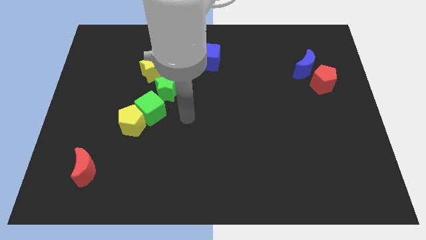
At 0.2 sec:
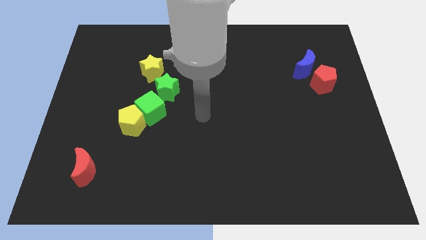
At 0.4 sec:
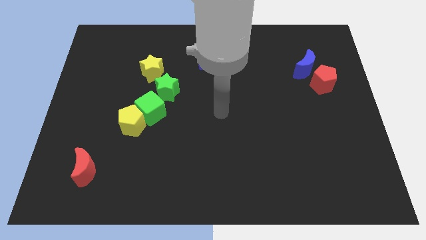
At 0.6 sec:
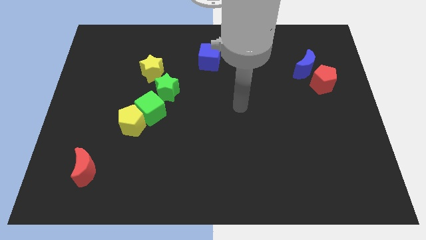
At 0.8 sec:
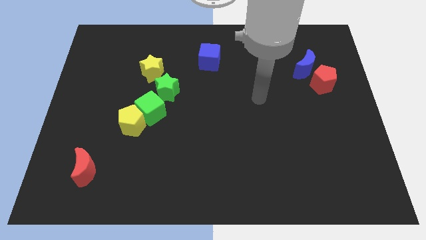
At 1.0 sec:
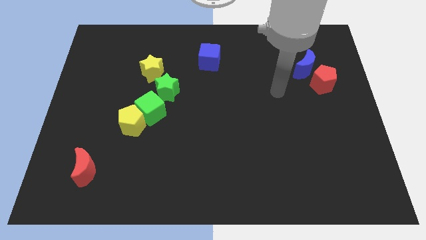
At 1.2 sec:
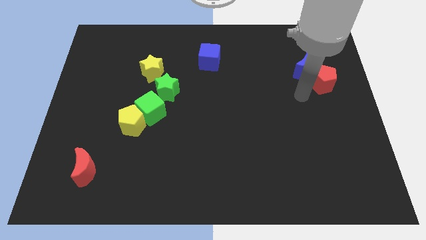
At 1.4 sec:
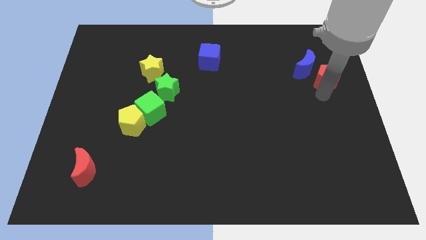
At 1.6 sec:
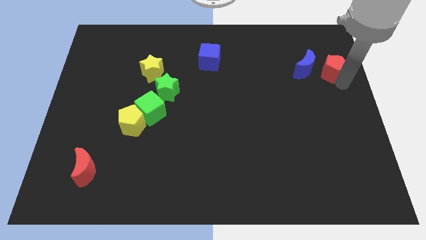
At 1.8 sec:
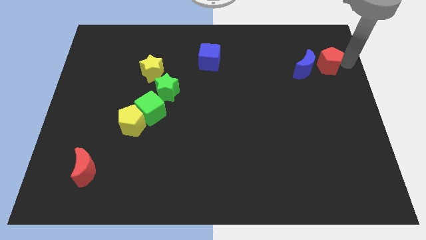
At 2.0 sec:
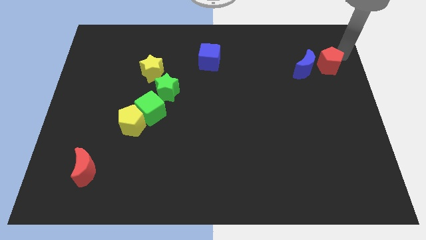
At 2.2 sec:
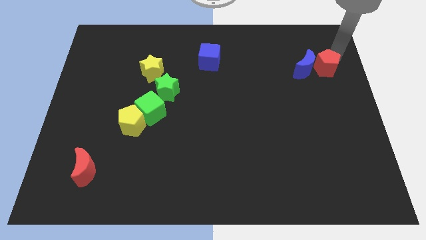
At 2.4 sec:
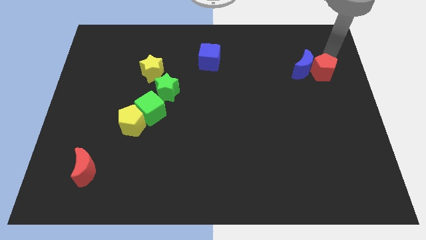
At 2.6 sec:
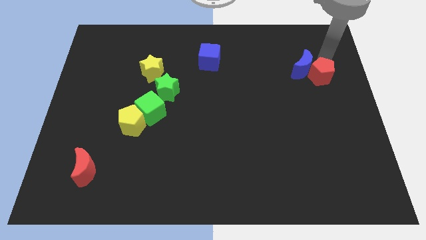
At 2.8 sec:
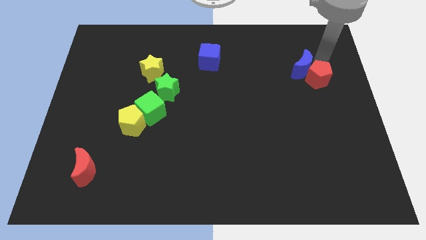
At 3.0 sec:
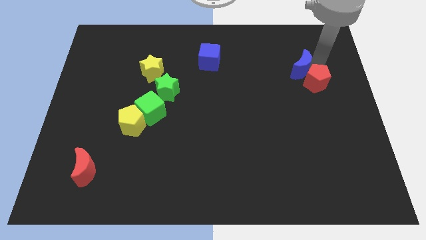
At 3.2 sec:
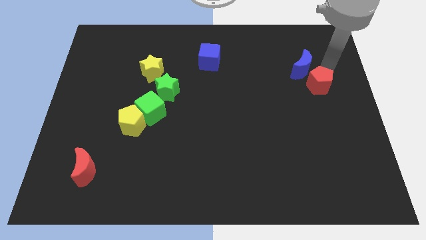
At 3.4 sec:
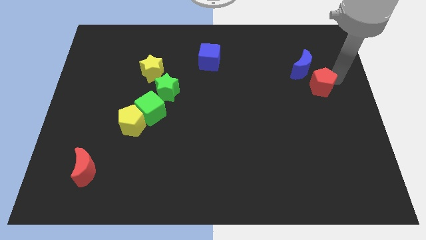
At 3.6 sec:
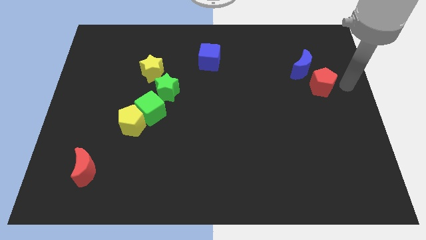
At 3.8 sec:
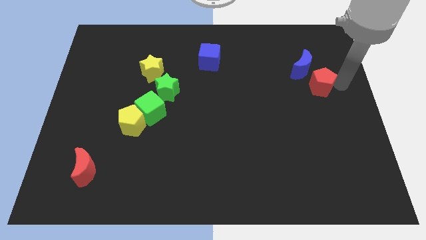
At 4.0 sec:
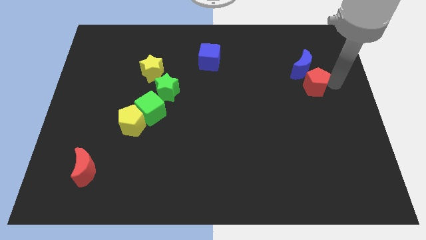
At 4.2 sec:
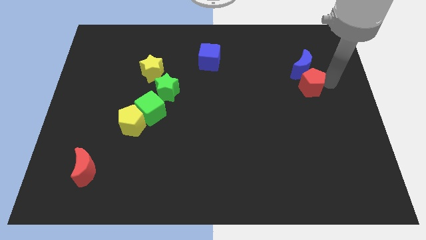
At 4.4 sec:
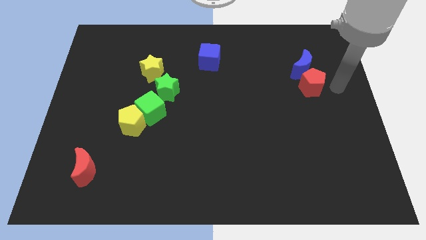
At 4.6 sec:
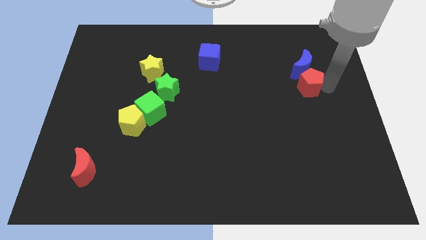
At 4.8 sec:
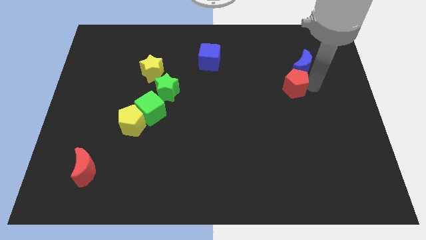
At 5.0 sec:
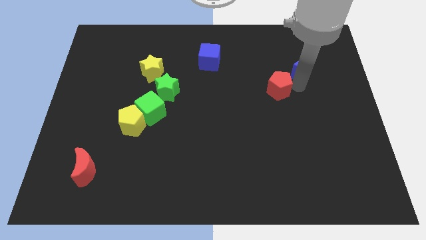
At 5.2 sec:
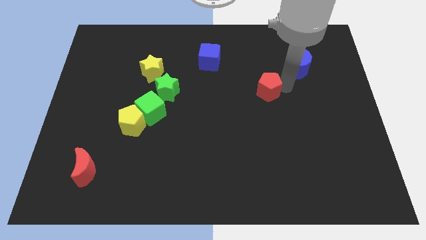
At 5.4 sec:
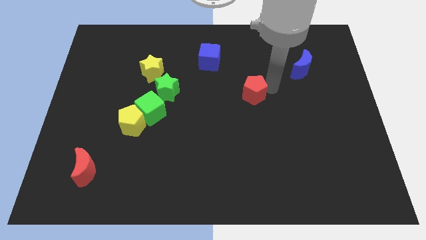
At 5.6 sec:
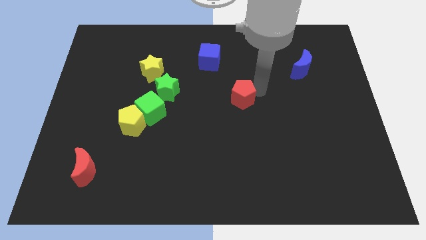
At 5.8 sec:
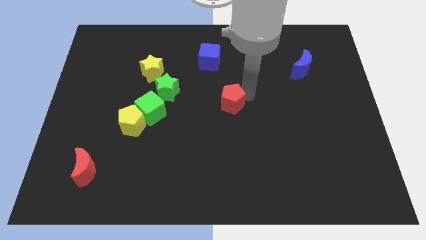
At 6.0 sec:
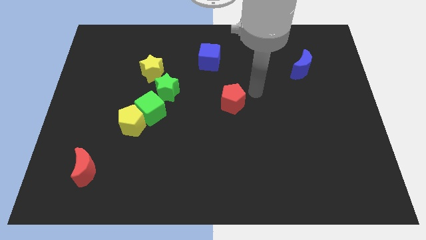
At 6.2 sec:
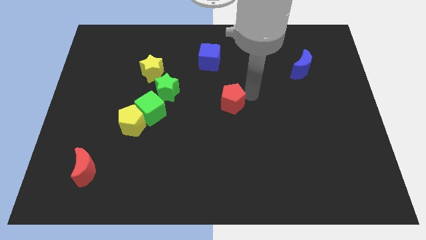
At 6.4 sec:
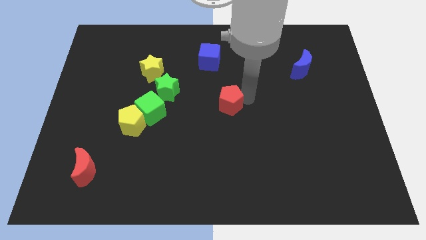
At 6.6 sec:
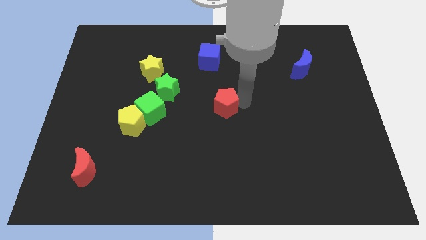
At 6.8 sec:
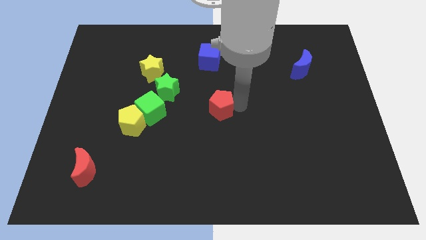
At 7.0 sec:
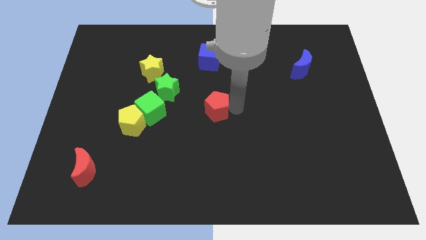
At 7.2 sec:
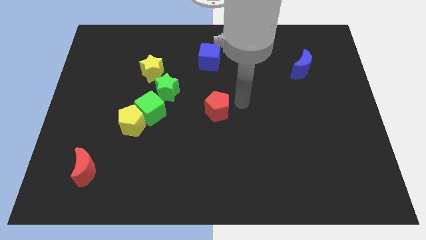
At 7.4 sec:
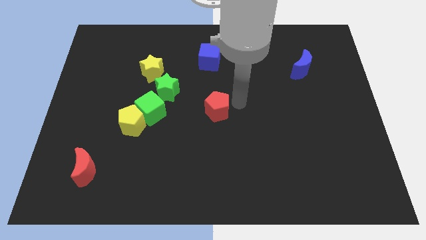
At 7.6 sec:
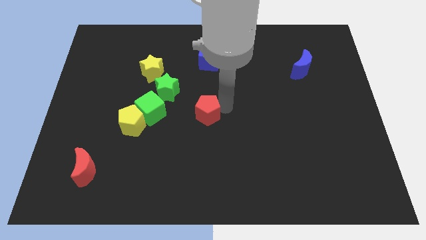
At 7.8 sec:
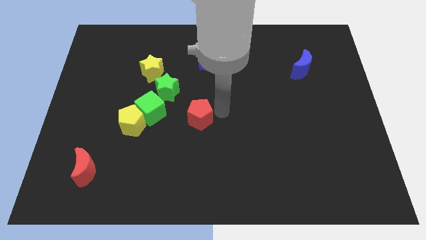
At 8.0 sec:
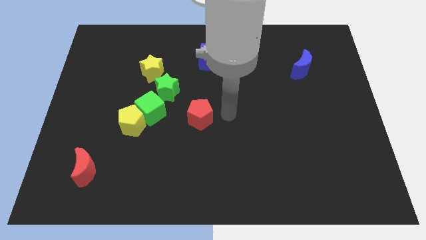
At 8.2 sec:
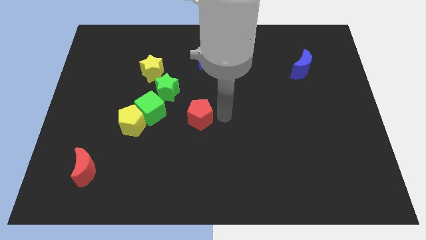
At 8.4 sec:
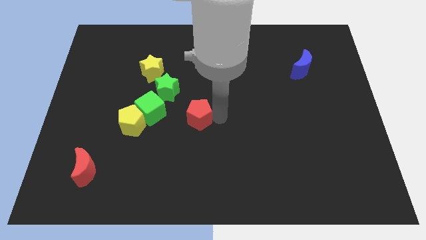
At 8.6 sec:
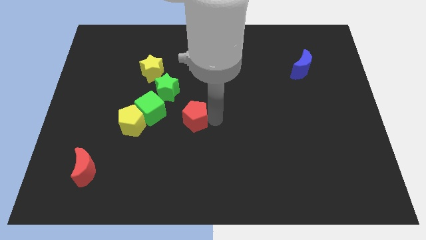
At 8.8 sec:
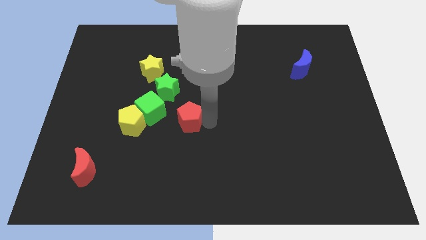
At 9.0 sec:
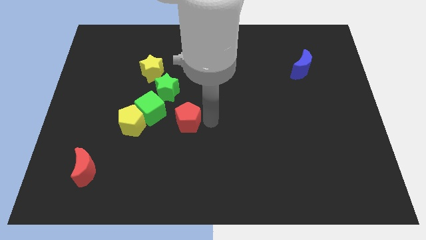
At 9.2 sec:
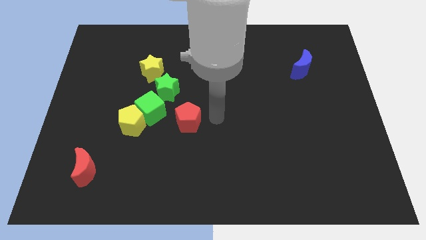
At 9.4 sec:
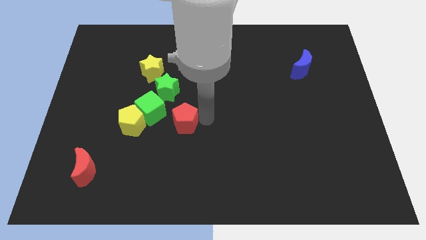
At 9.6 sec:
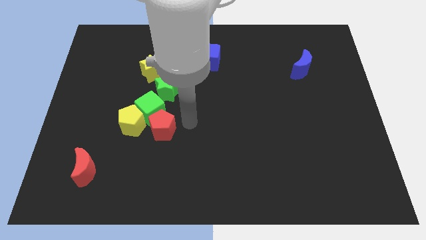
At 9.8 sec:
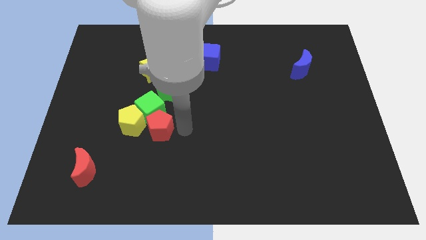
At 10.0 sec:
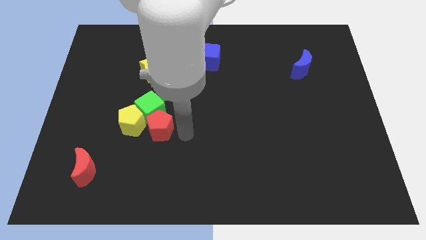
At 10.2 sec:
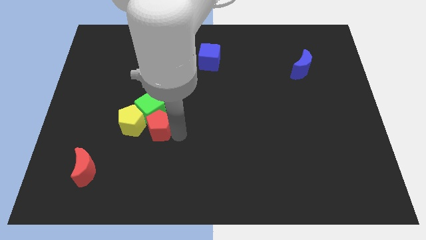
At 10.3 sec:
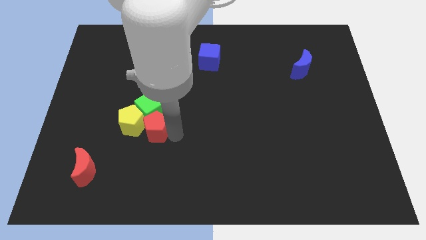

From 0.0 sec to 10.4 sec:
put the red pentagon to the yellow pentagon

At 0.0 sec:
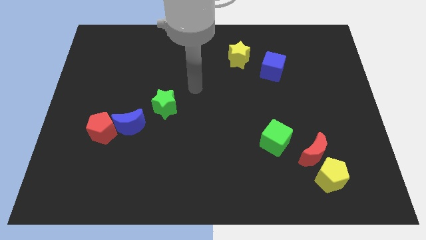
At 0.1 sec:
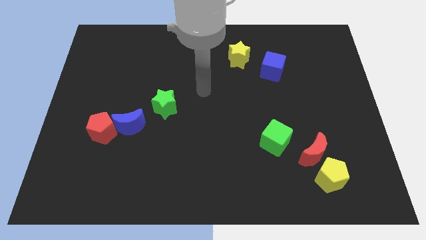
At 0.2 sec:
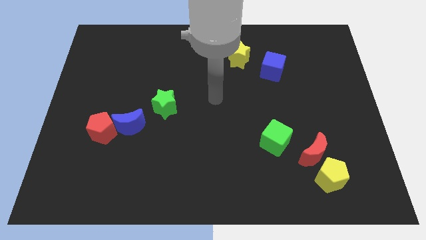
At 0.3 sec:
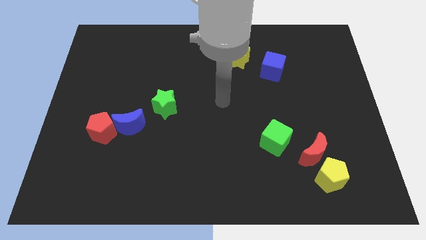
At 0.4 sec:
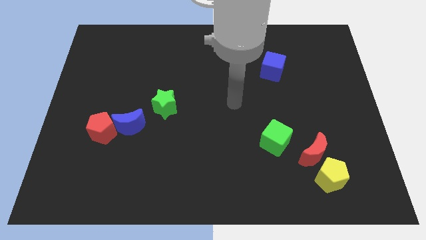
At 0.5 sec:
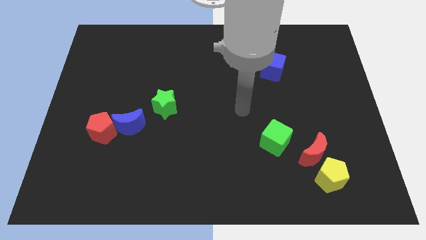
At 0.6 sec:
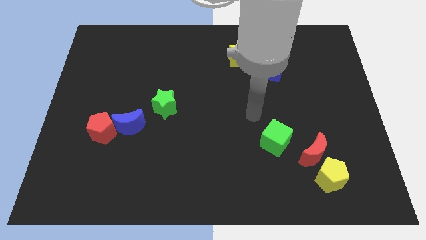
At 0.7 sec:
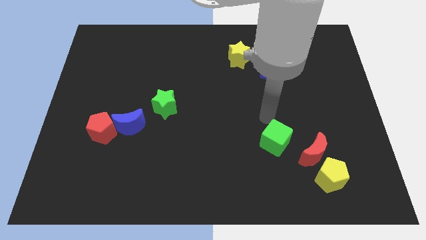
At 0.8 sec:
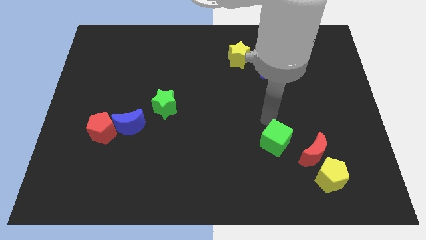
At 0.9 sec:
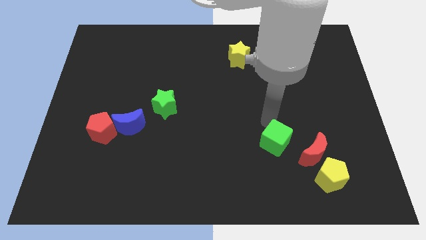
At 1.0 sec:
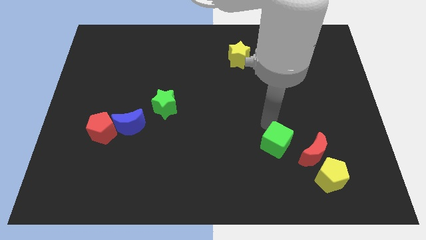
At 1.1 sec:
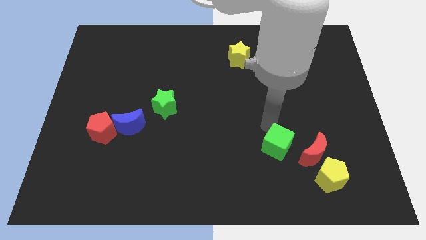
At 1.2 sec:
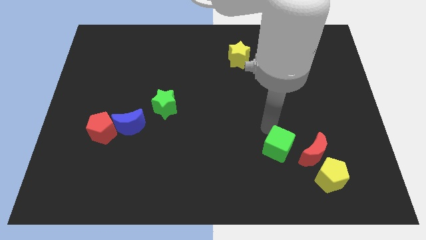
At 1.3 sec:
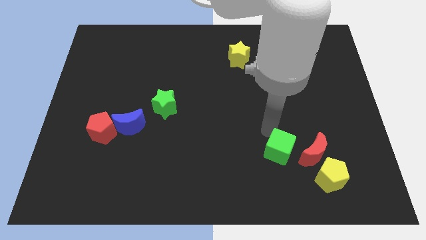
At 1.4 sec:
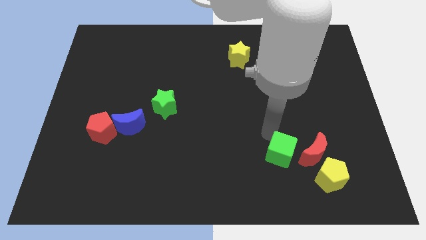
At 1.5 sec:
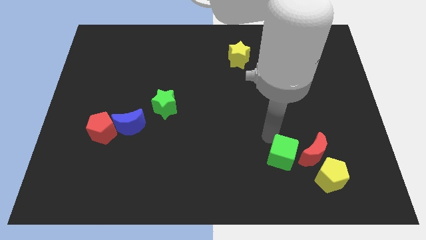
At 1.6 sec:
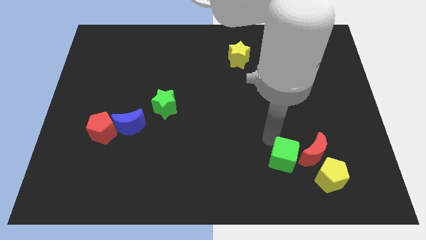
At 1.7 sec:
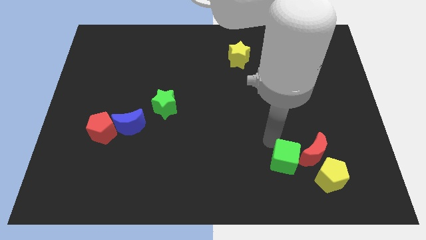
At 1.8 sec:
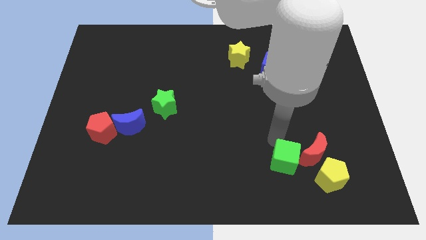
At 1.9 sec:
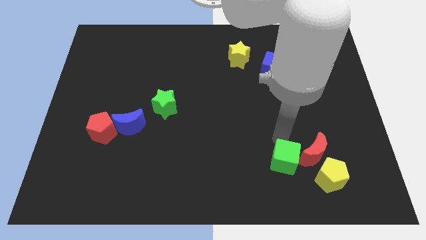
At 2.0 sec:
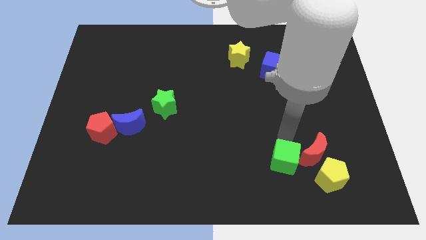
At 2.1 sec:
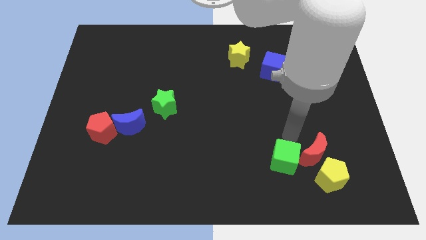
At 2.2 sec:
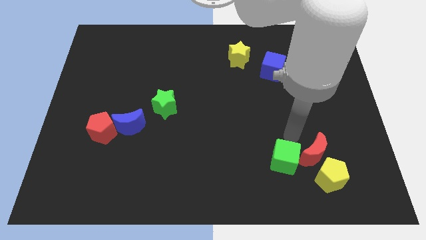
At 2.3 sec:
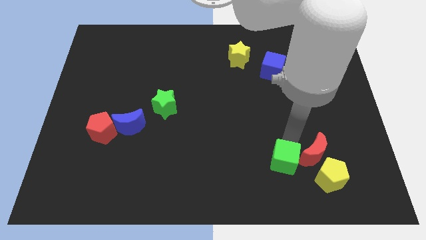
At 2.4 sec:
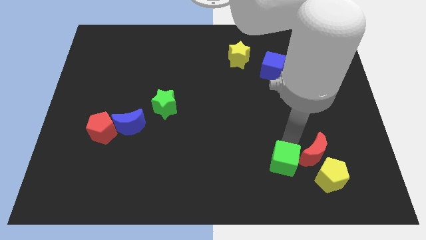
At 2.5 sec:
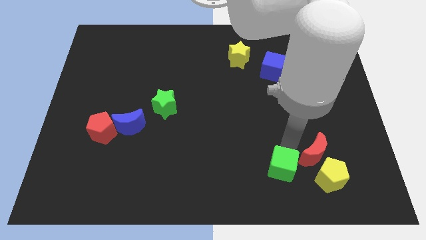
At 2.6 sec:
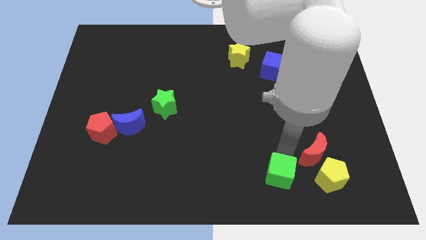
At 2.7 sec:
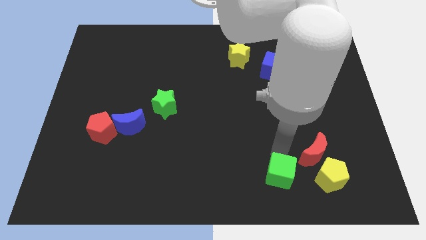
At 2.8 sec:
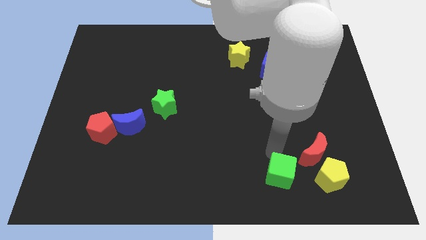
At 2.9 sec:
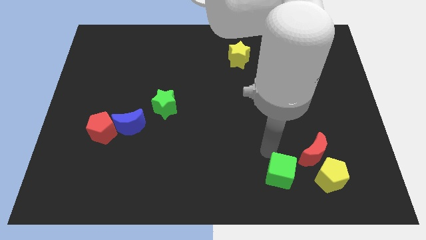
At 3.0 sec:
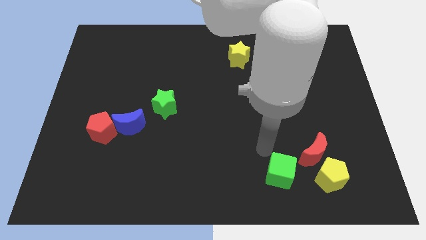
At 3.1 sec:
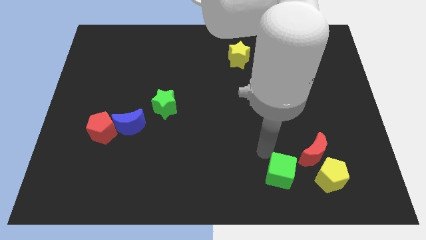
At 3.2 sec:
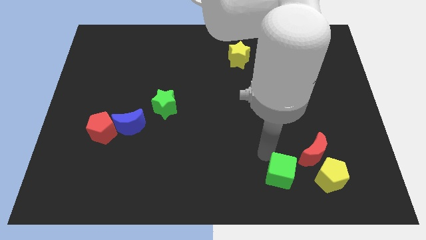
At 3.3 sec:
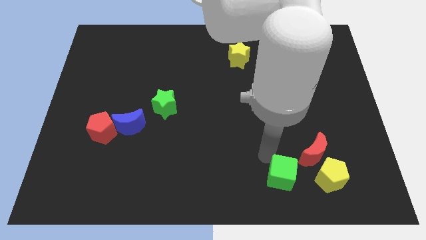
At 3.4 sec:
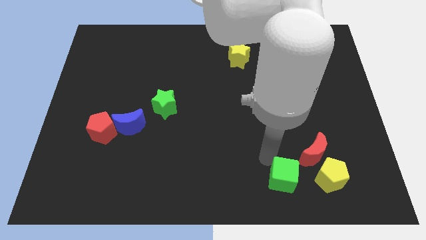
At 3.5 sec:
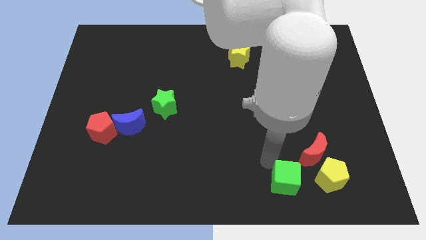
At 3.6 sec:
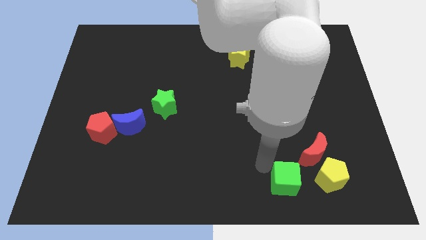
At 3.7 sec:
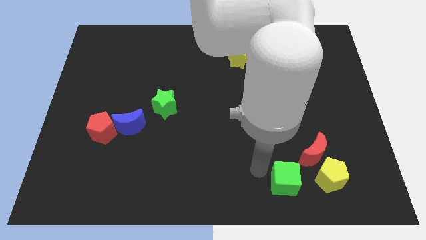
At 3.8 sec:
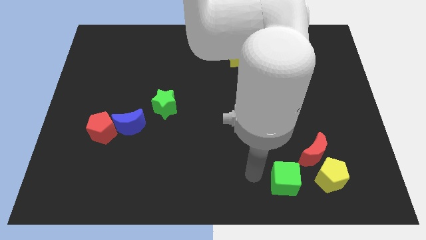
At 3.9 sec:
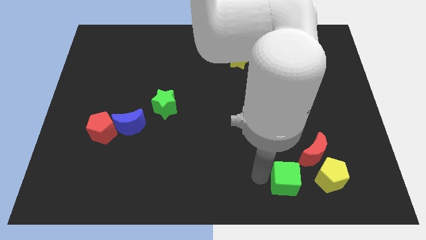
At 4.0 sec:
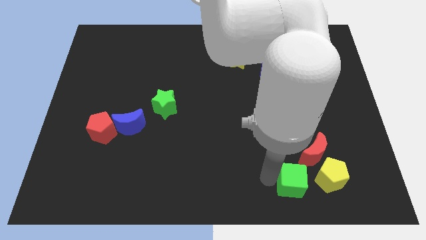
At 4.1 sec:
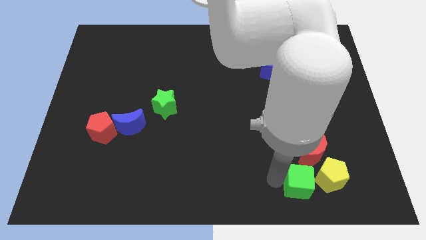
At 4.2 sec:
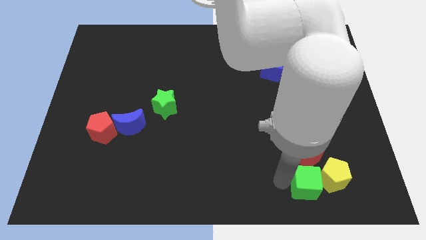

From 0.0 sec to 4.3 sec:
put the green cube to the yellow pentagon
